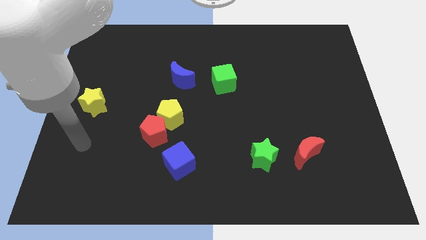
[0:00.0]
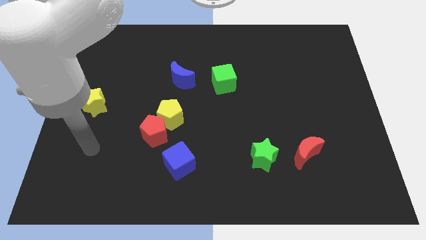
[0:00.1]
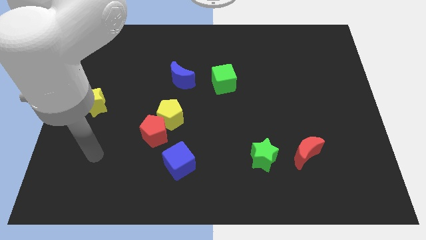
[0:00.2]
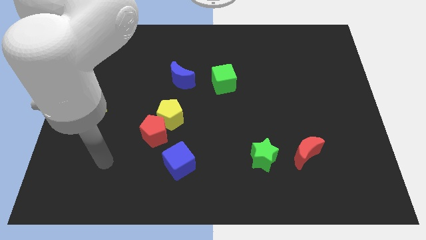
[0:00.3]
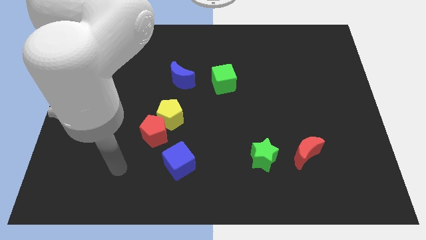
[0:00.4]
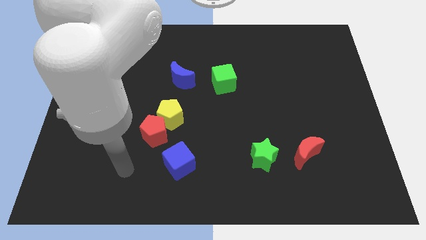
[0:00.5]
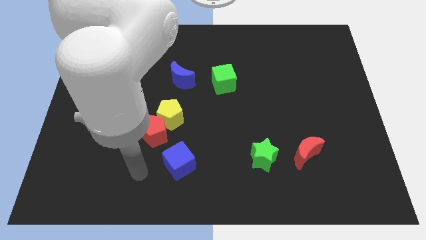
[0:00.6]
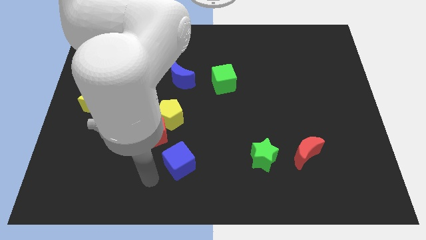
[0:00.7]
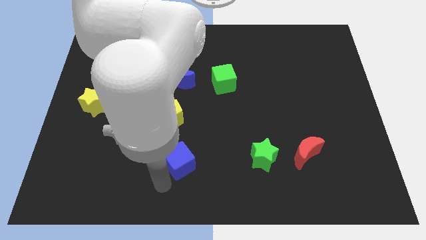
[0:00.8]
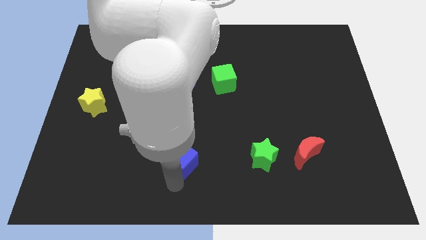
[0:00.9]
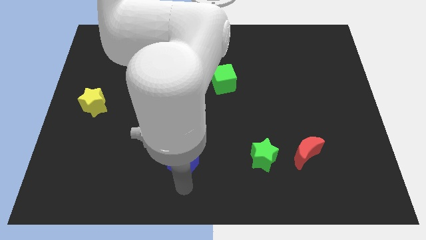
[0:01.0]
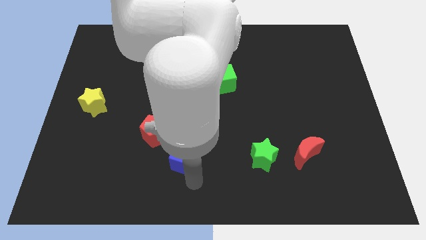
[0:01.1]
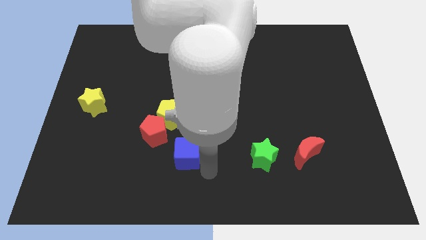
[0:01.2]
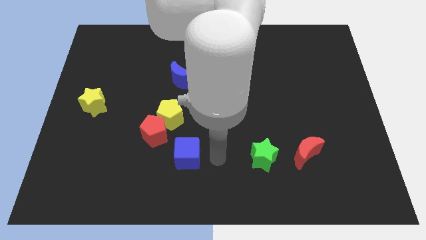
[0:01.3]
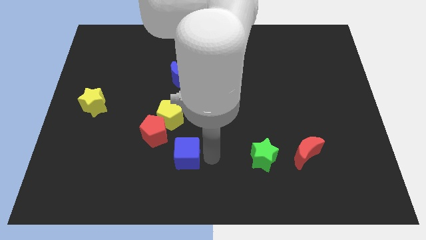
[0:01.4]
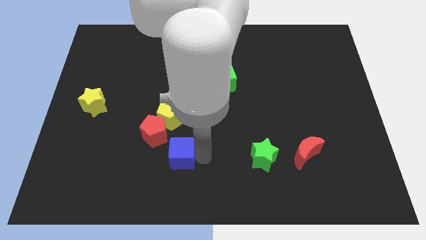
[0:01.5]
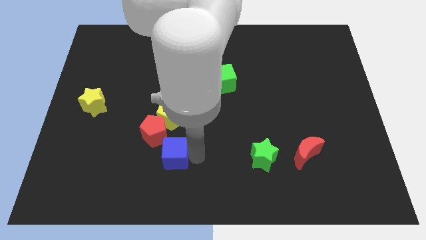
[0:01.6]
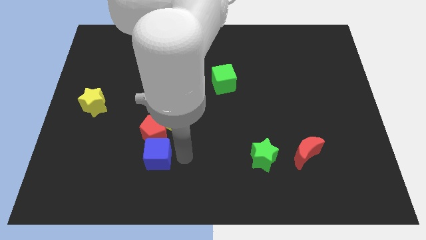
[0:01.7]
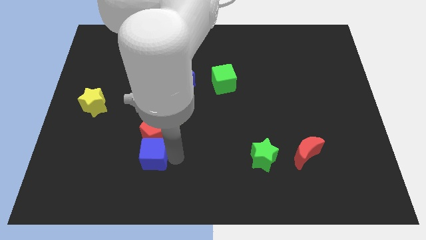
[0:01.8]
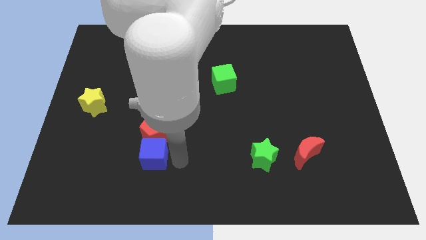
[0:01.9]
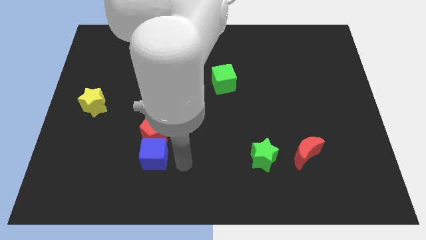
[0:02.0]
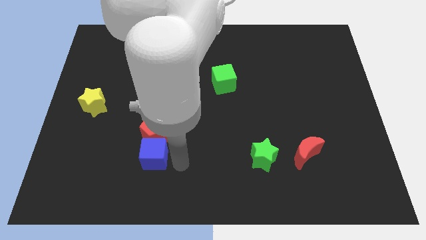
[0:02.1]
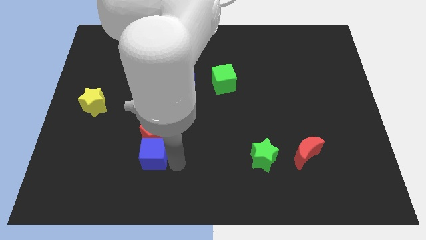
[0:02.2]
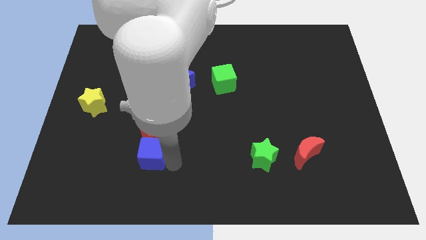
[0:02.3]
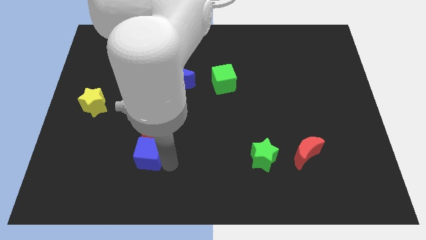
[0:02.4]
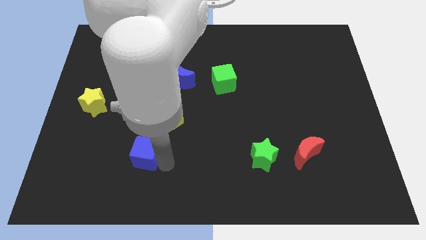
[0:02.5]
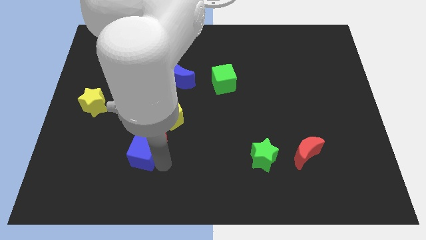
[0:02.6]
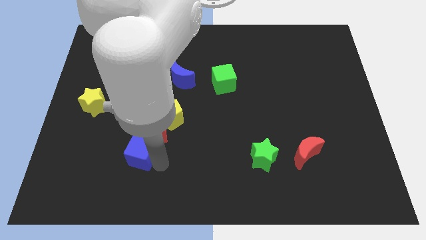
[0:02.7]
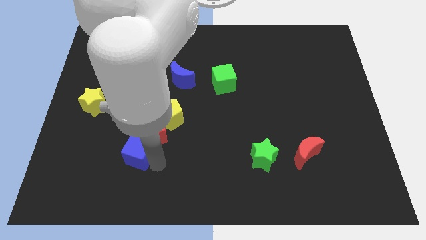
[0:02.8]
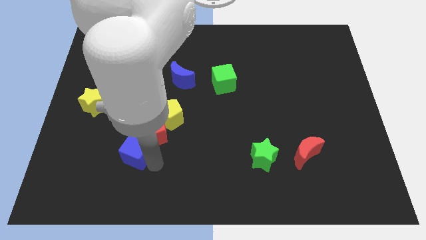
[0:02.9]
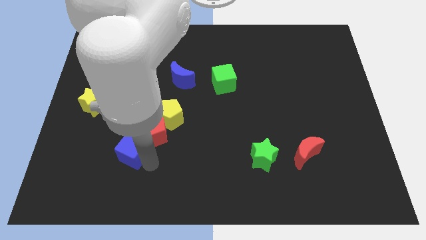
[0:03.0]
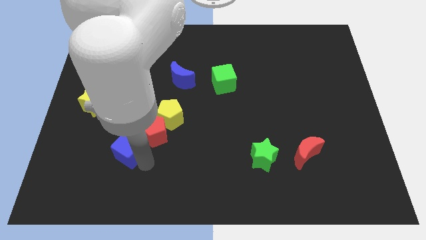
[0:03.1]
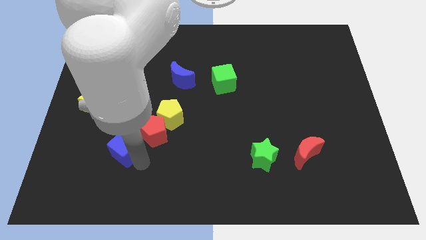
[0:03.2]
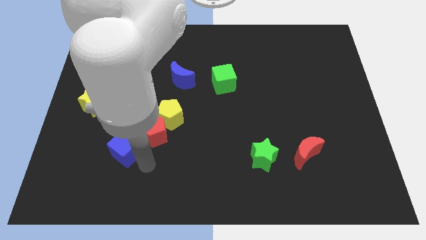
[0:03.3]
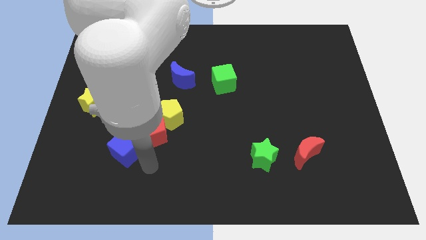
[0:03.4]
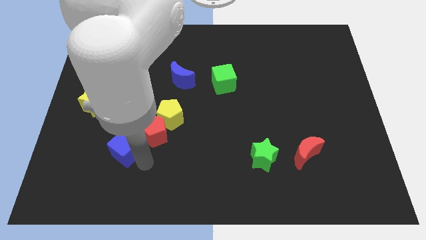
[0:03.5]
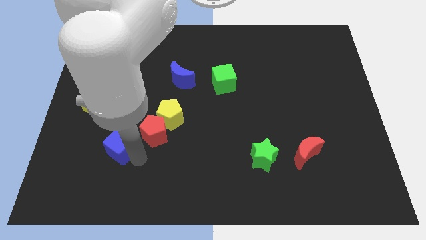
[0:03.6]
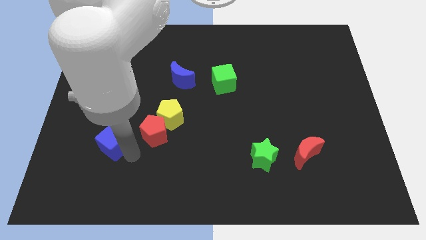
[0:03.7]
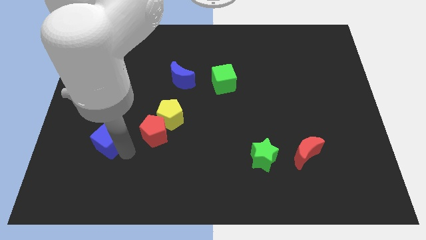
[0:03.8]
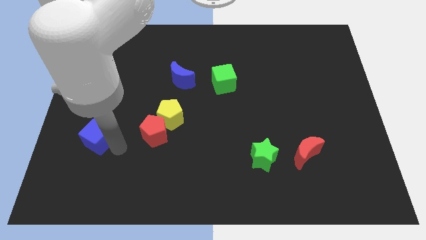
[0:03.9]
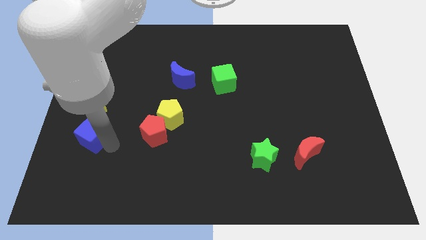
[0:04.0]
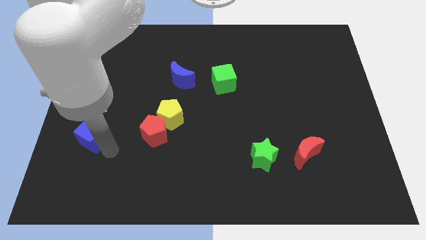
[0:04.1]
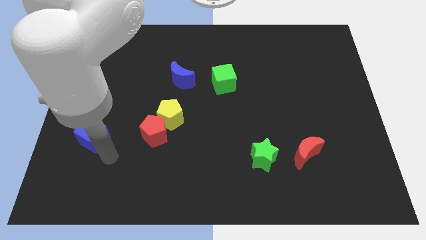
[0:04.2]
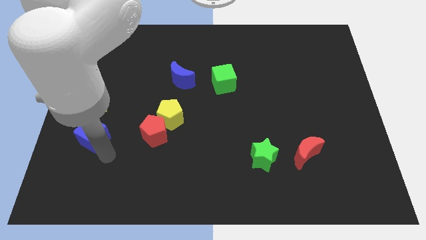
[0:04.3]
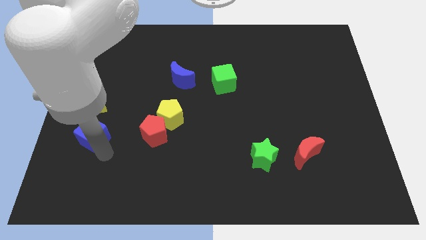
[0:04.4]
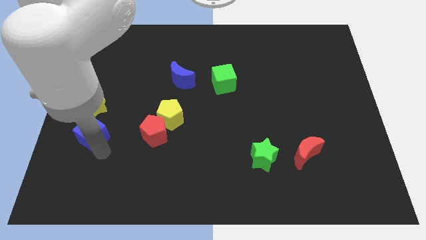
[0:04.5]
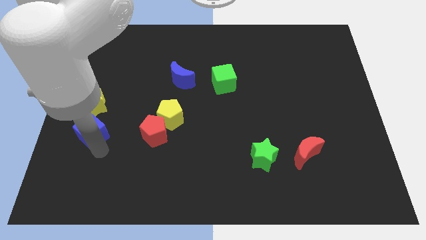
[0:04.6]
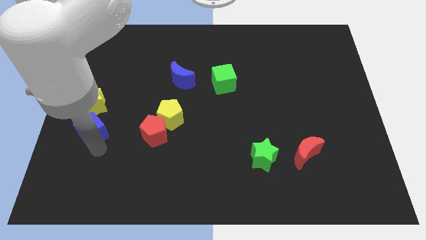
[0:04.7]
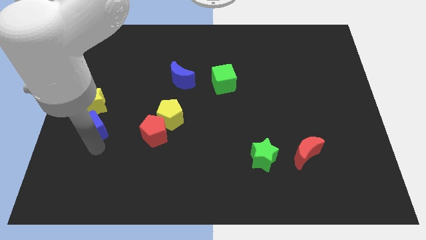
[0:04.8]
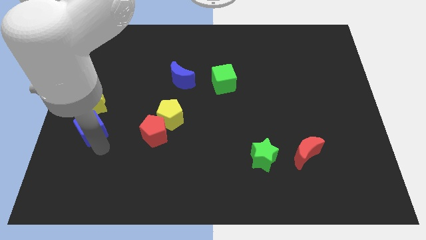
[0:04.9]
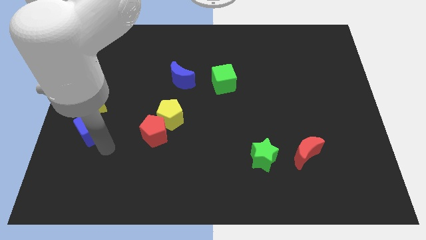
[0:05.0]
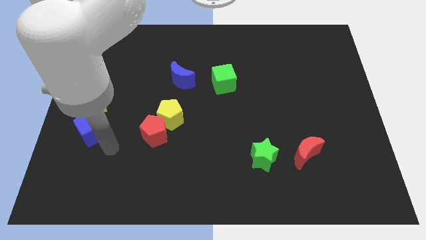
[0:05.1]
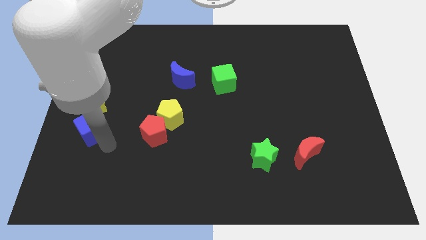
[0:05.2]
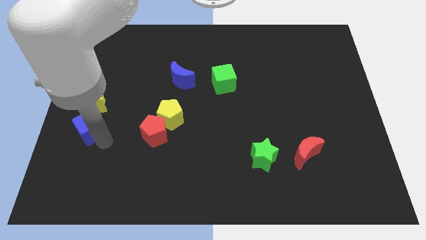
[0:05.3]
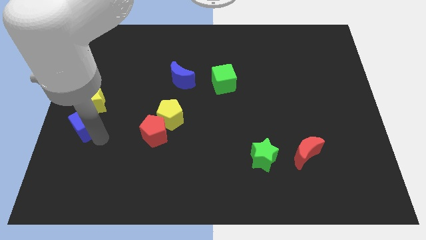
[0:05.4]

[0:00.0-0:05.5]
slide the blue cube to the left side
